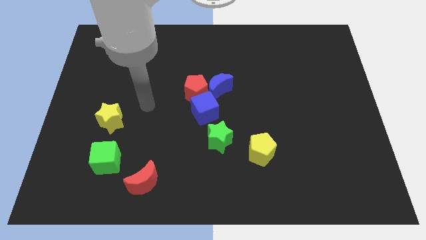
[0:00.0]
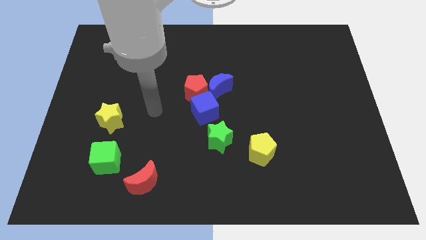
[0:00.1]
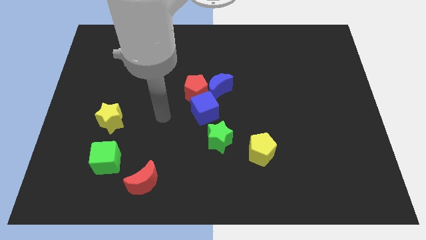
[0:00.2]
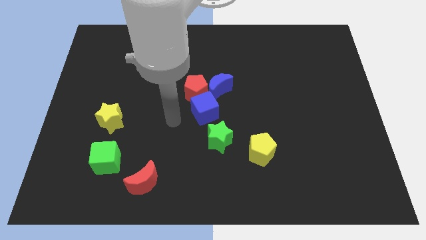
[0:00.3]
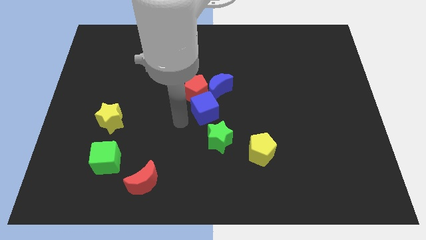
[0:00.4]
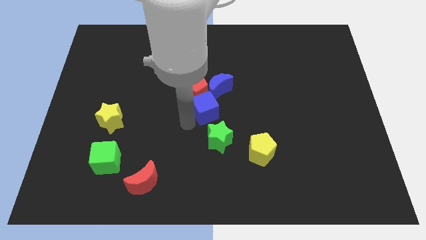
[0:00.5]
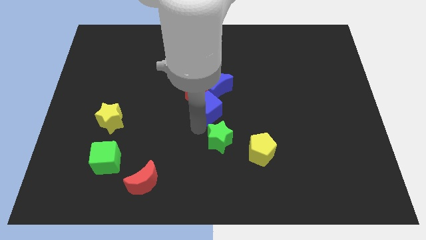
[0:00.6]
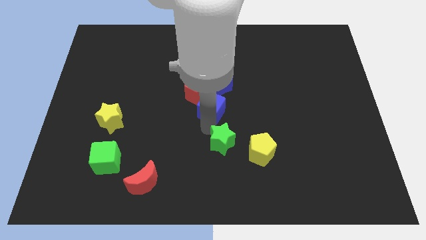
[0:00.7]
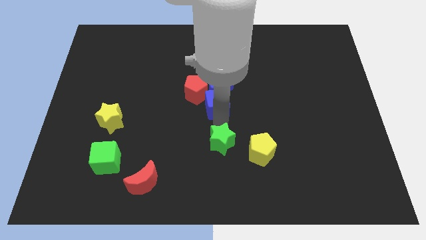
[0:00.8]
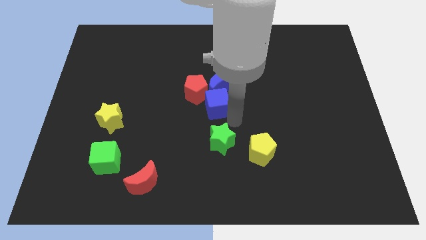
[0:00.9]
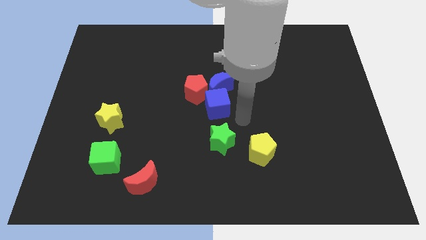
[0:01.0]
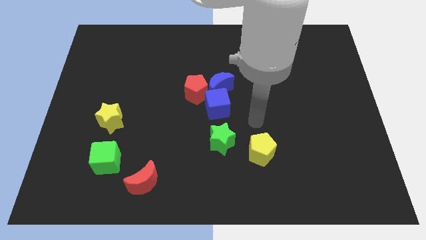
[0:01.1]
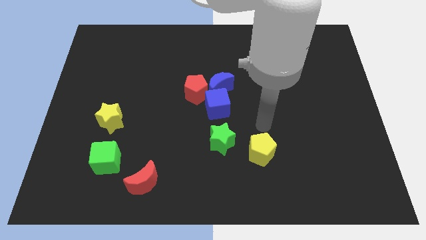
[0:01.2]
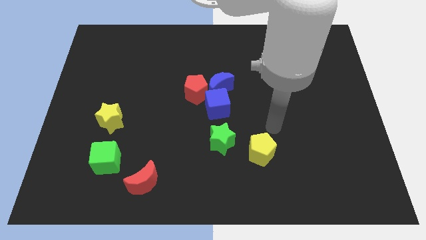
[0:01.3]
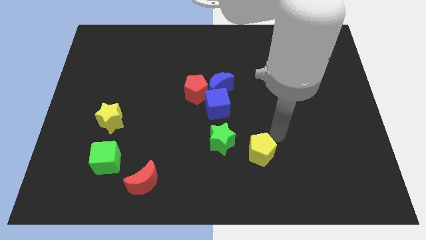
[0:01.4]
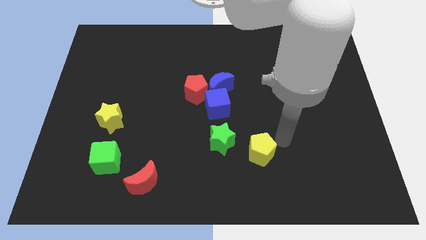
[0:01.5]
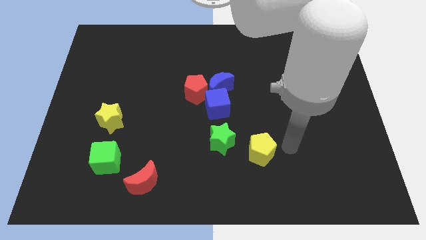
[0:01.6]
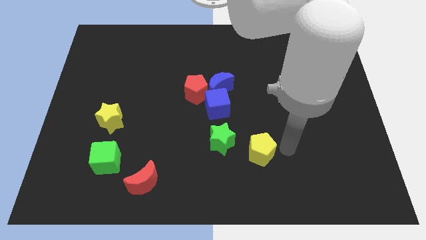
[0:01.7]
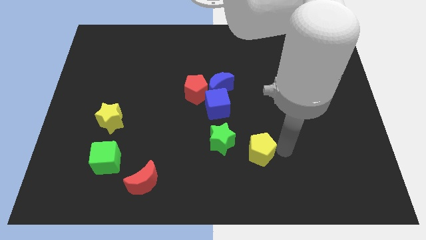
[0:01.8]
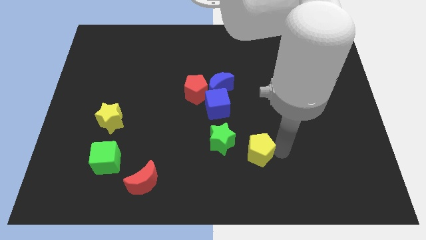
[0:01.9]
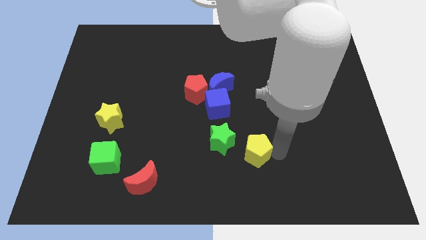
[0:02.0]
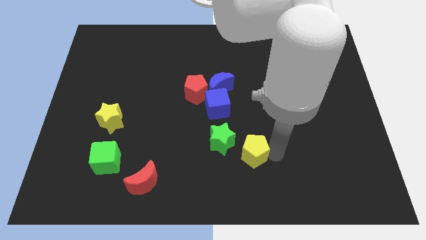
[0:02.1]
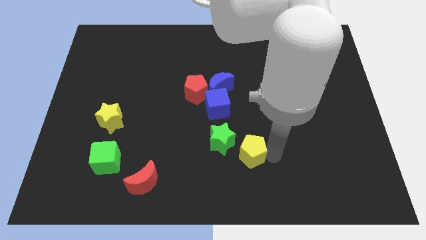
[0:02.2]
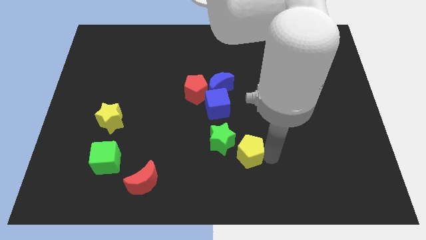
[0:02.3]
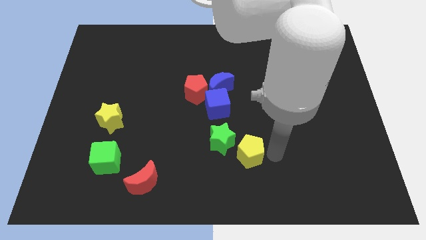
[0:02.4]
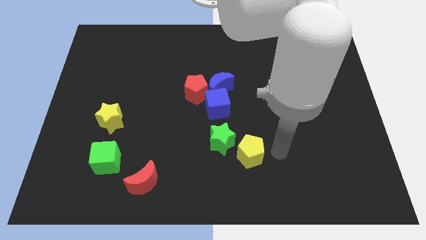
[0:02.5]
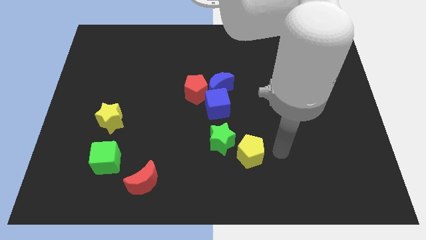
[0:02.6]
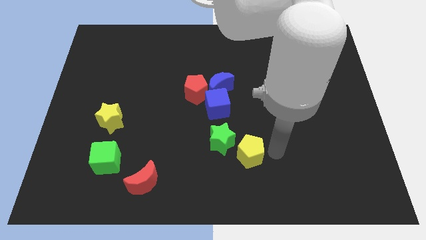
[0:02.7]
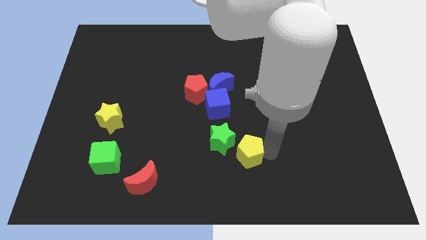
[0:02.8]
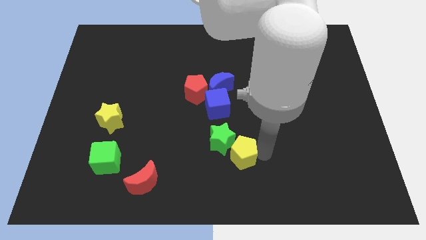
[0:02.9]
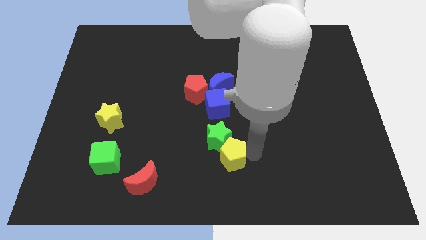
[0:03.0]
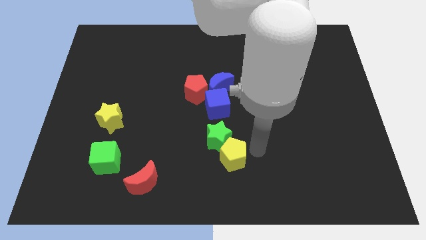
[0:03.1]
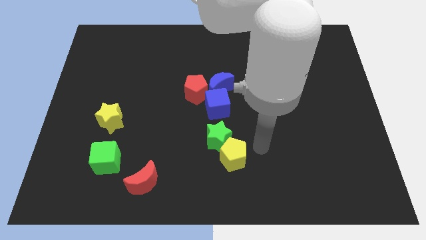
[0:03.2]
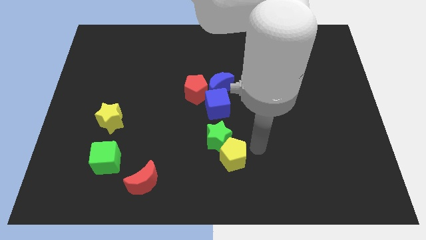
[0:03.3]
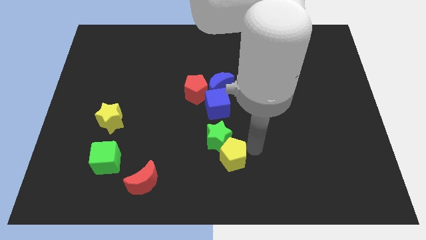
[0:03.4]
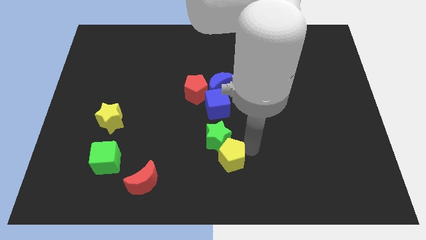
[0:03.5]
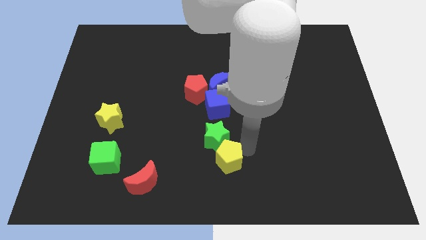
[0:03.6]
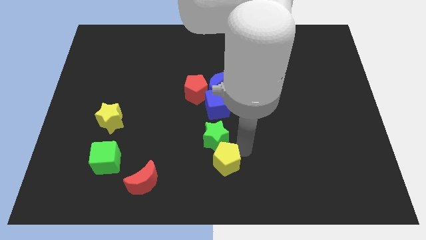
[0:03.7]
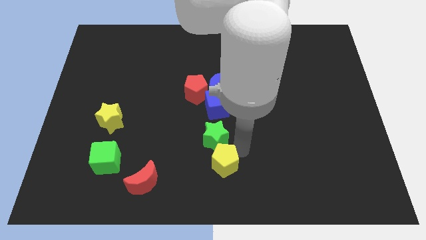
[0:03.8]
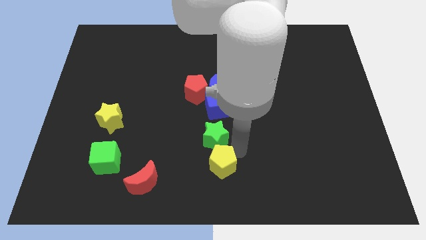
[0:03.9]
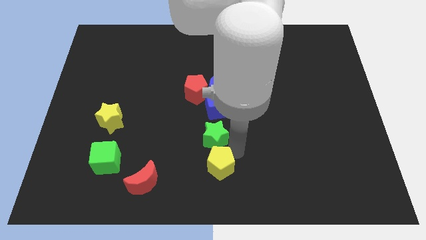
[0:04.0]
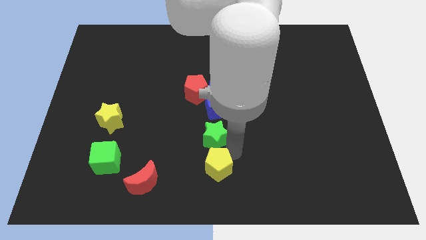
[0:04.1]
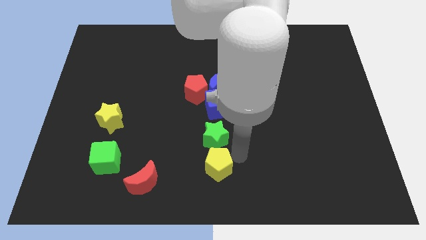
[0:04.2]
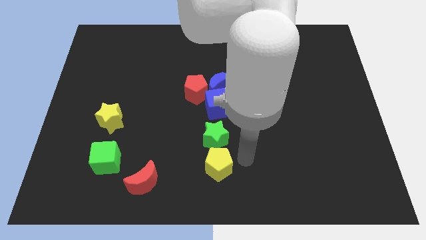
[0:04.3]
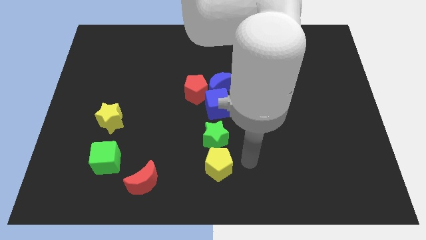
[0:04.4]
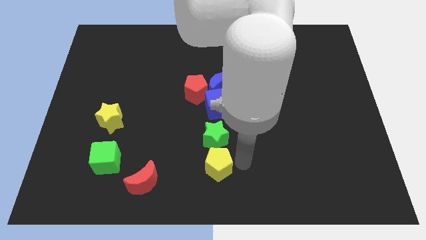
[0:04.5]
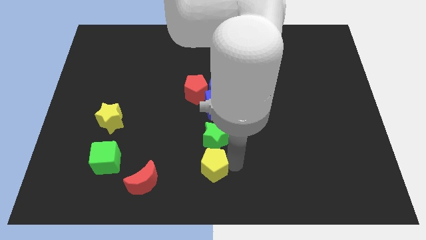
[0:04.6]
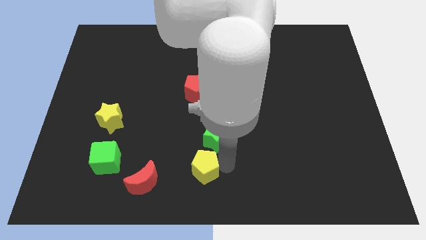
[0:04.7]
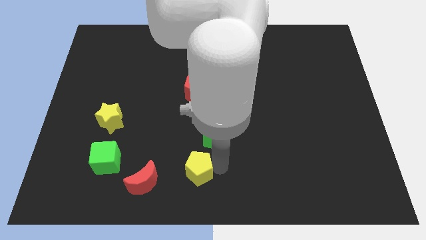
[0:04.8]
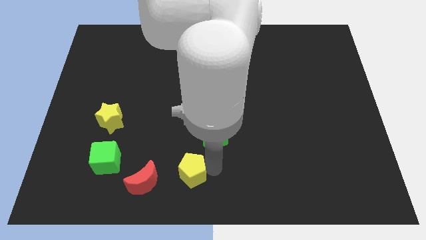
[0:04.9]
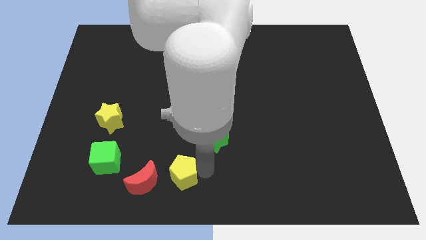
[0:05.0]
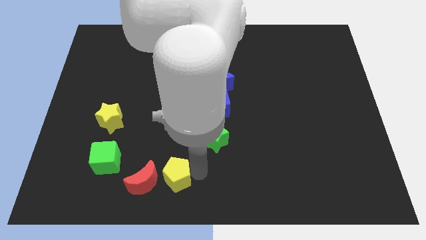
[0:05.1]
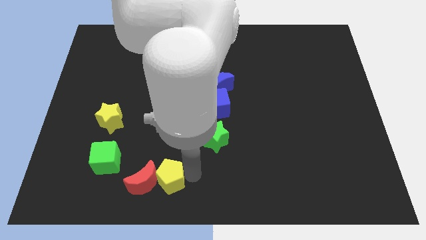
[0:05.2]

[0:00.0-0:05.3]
push the yellow pentagon towards the red moon

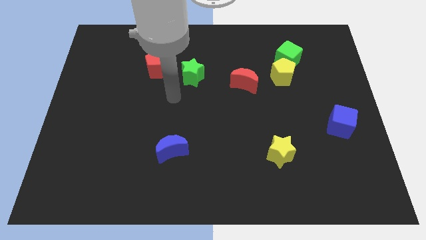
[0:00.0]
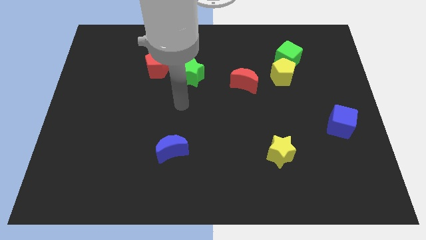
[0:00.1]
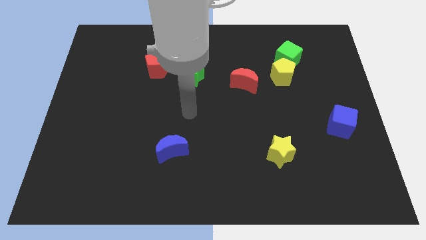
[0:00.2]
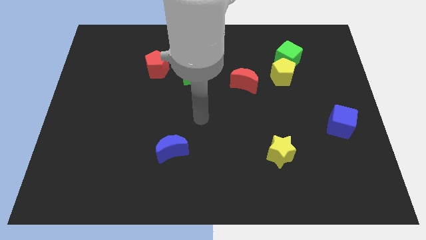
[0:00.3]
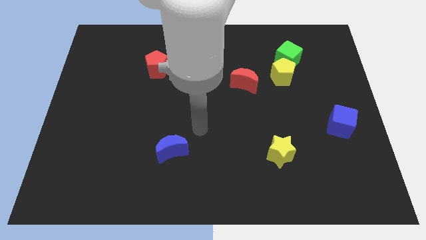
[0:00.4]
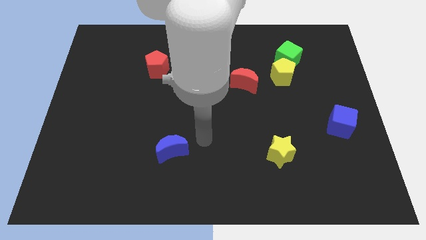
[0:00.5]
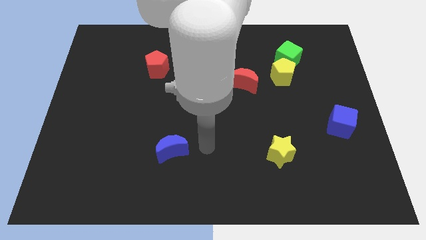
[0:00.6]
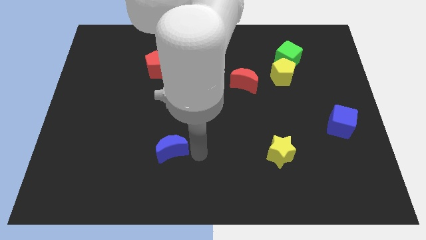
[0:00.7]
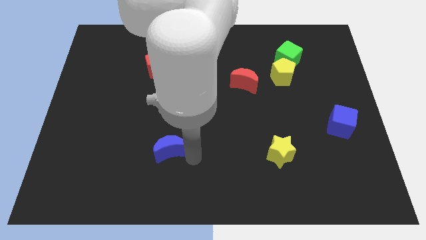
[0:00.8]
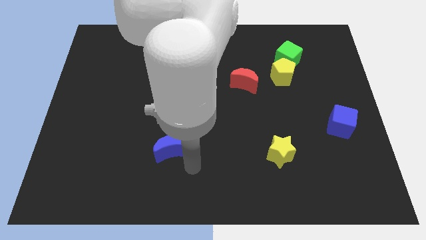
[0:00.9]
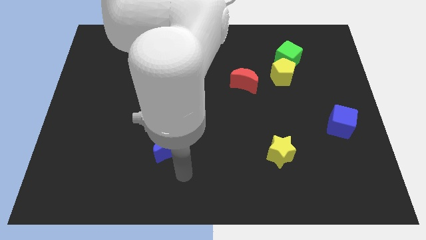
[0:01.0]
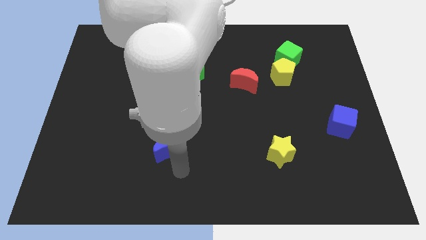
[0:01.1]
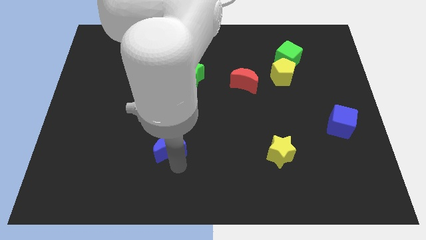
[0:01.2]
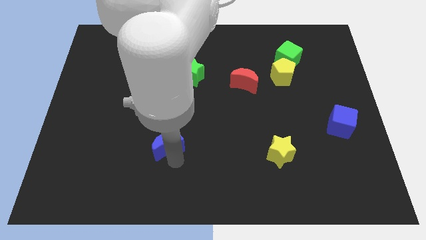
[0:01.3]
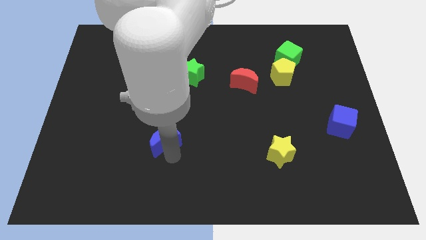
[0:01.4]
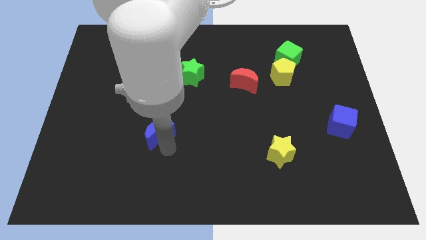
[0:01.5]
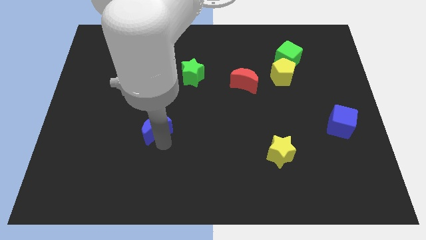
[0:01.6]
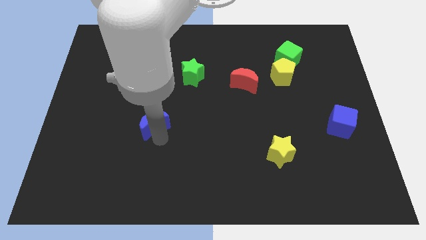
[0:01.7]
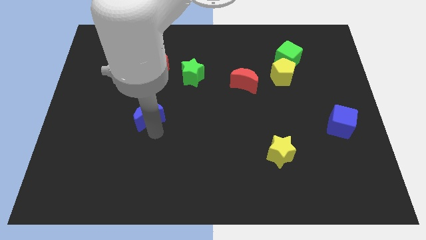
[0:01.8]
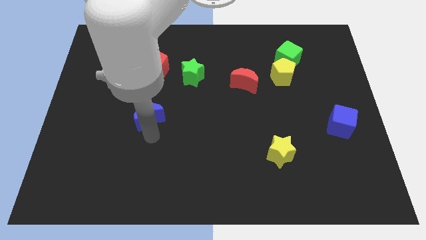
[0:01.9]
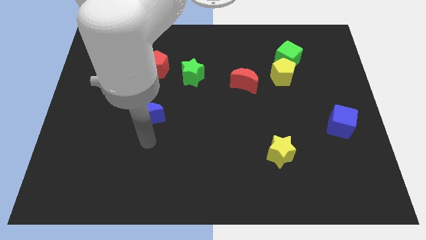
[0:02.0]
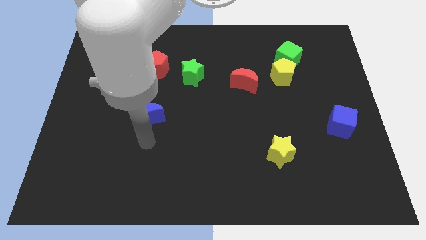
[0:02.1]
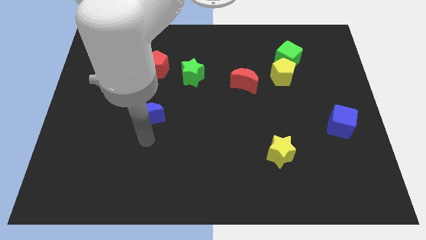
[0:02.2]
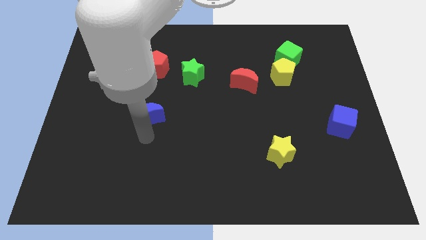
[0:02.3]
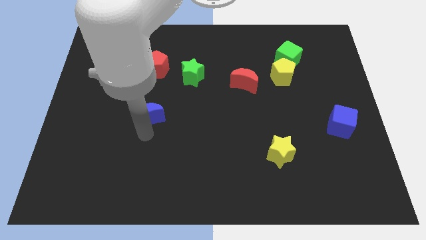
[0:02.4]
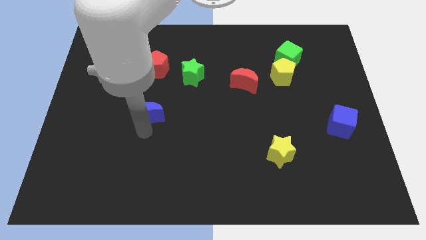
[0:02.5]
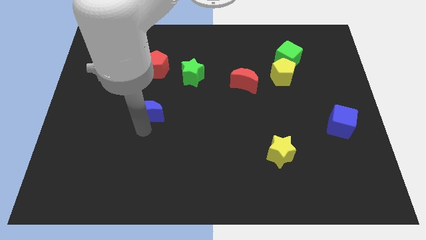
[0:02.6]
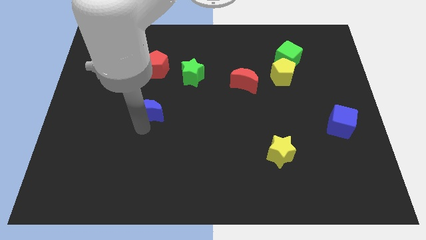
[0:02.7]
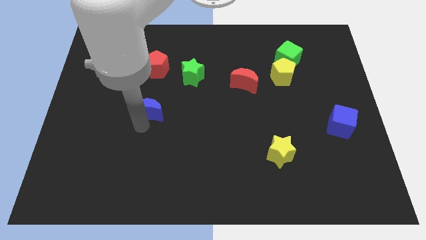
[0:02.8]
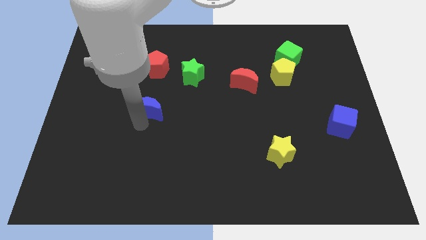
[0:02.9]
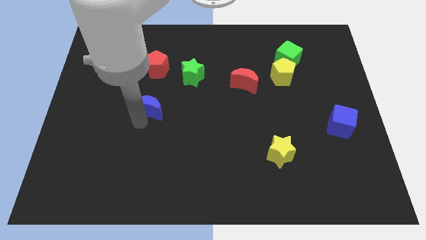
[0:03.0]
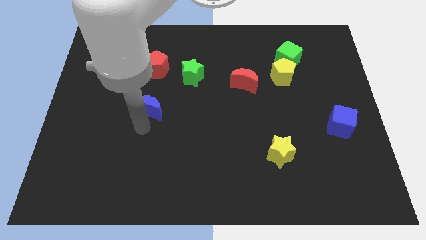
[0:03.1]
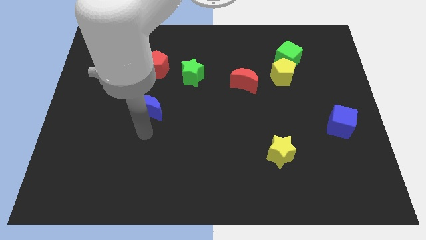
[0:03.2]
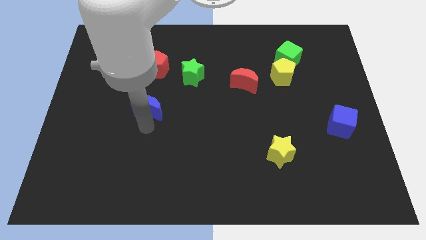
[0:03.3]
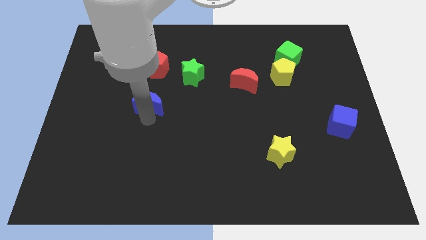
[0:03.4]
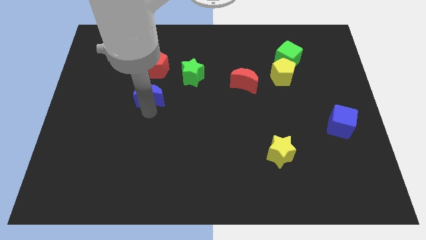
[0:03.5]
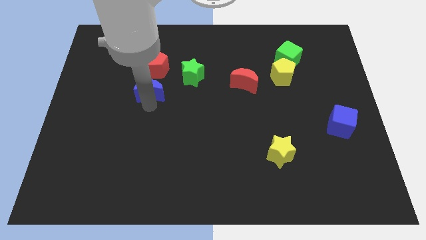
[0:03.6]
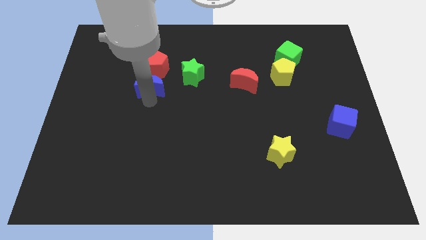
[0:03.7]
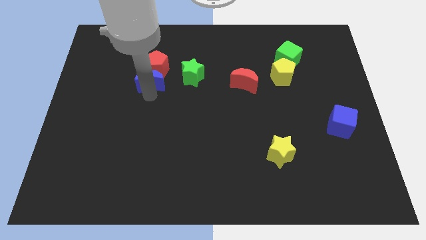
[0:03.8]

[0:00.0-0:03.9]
slide the blue moon towards the red pentagon
